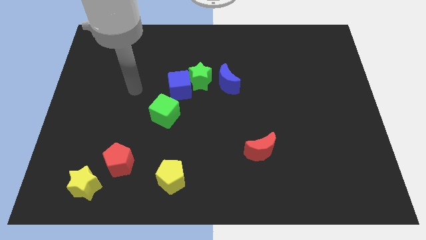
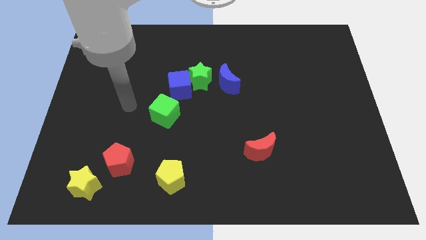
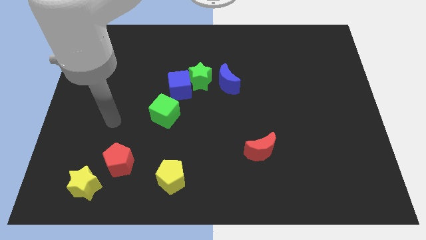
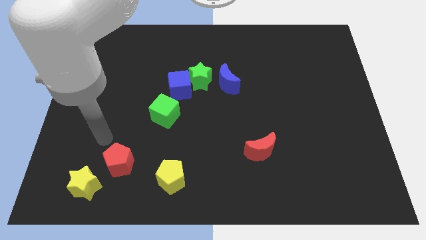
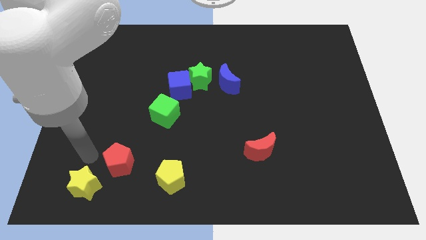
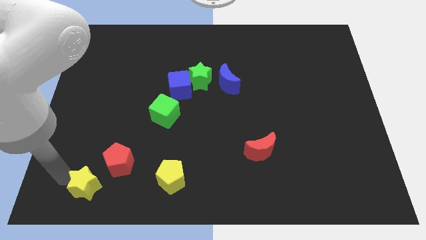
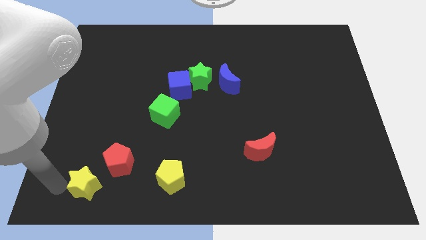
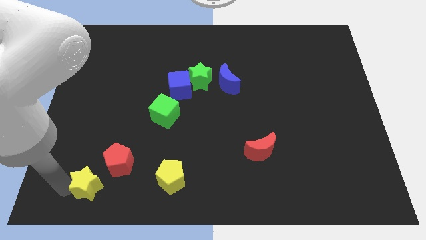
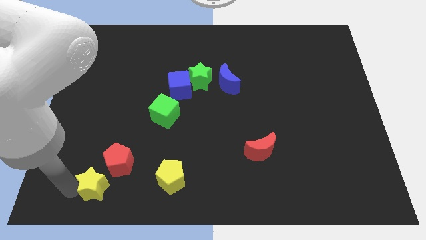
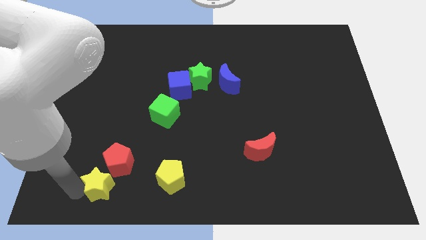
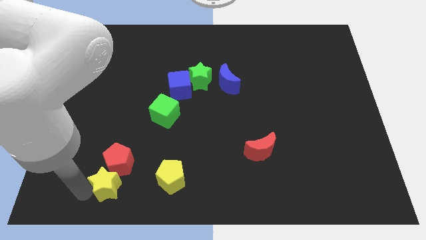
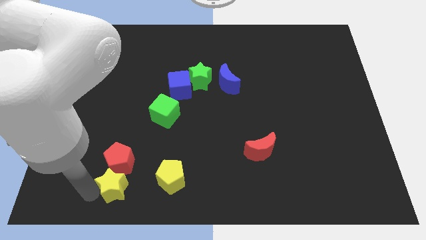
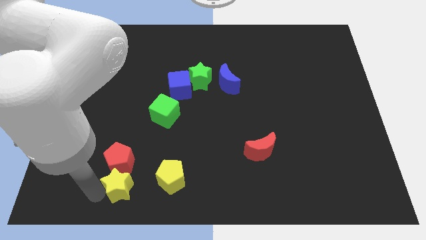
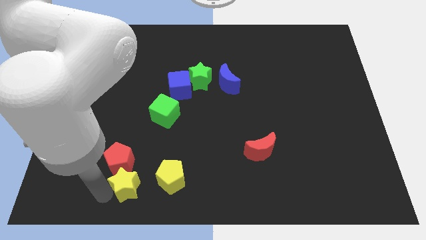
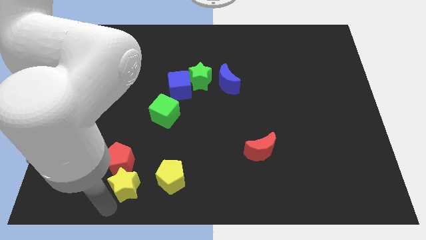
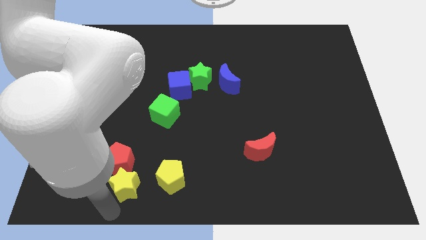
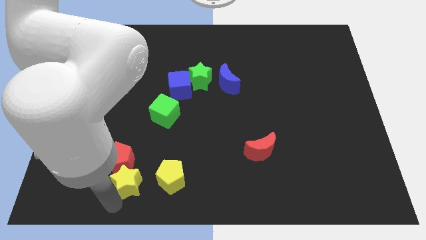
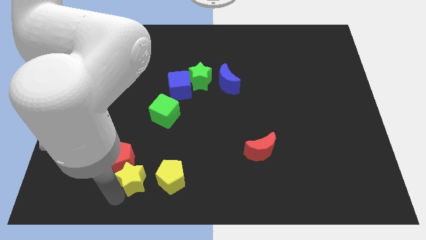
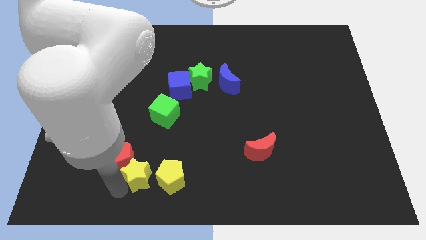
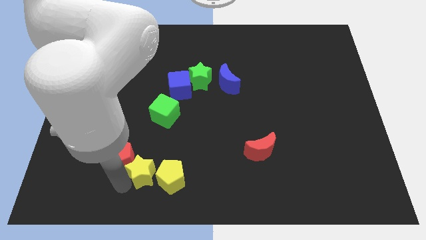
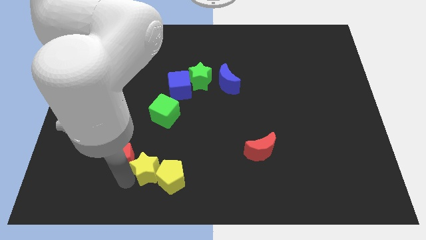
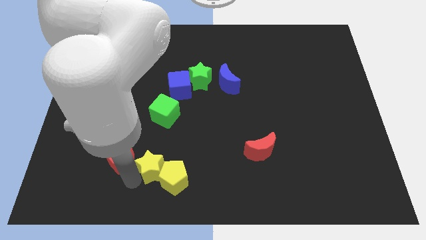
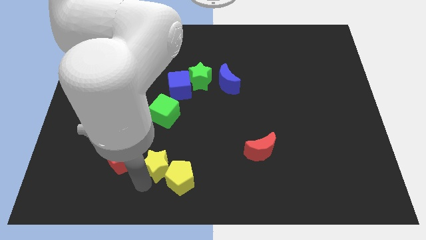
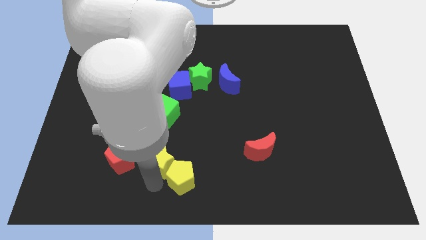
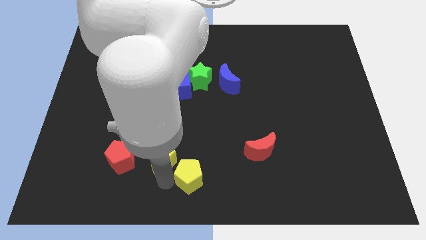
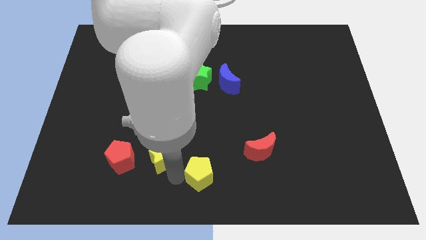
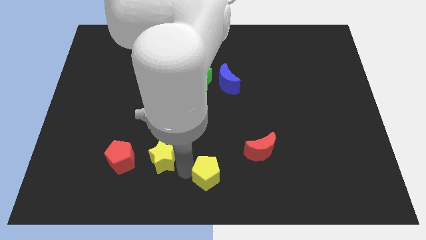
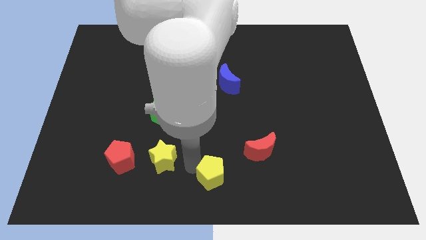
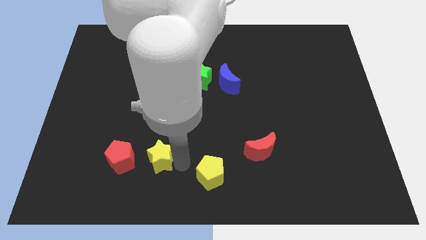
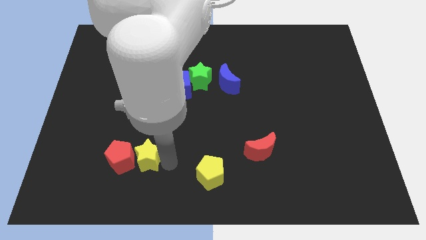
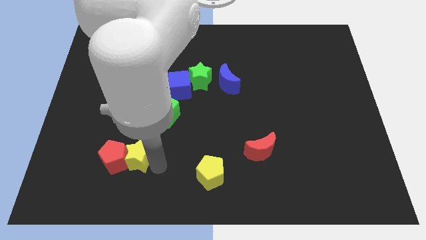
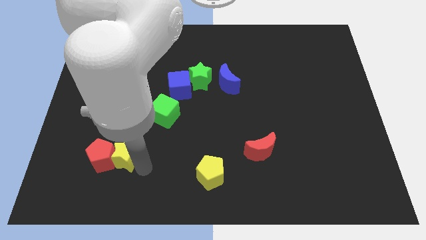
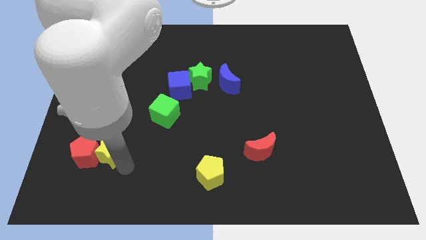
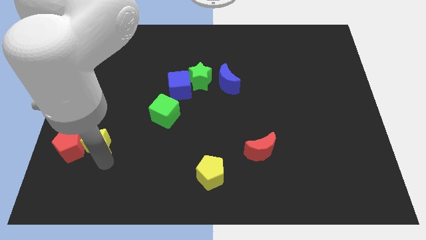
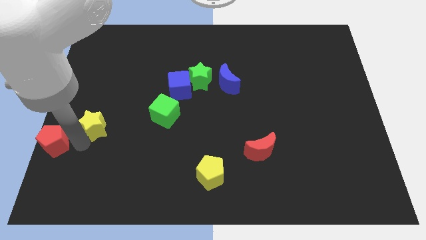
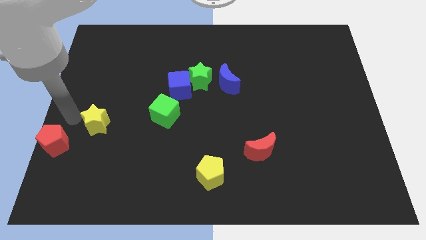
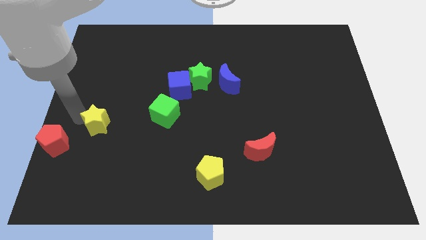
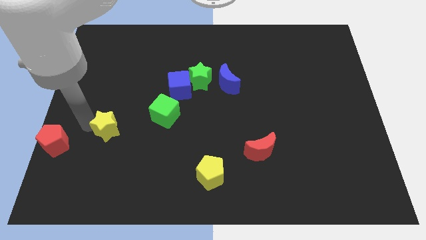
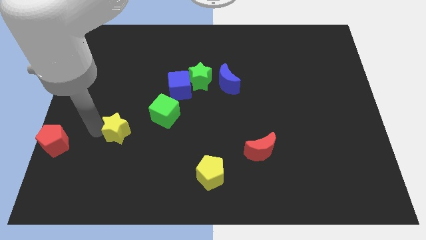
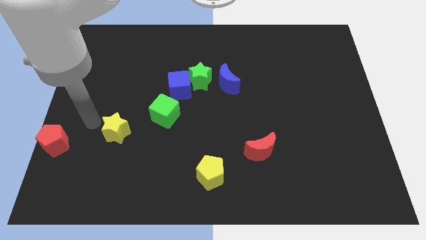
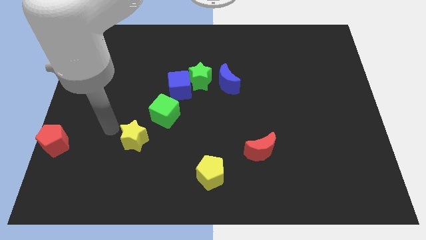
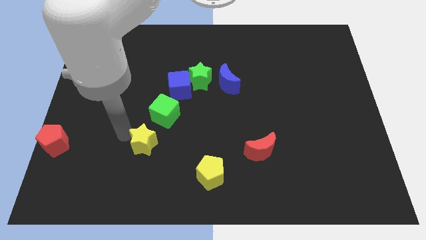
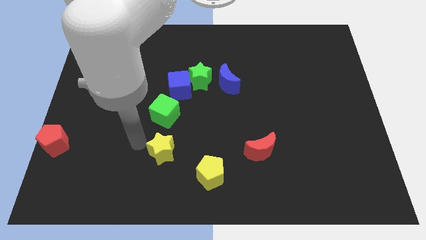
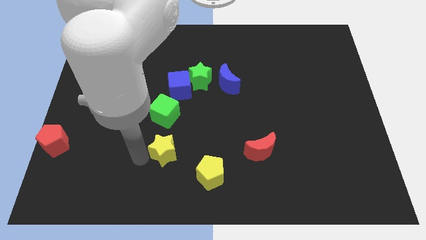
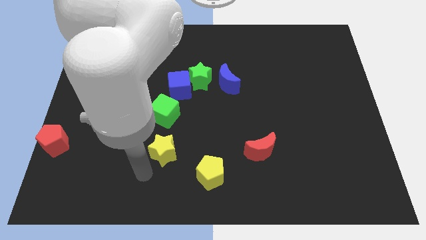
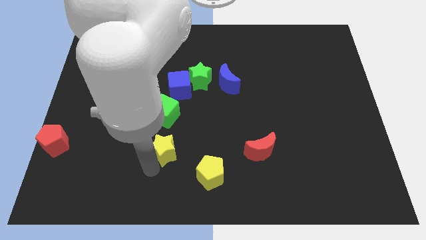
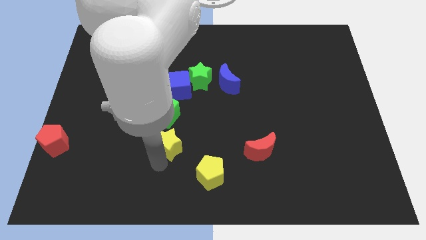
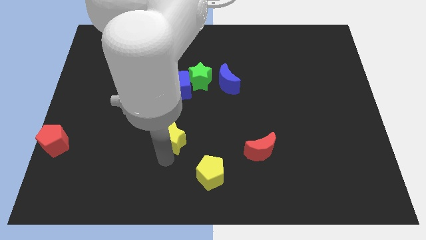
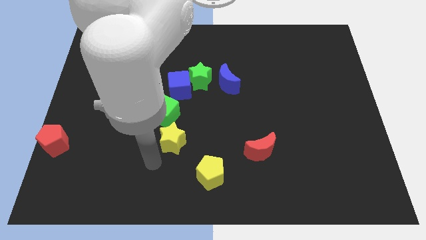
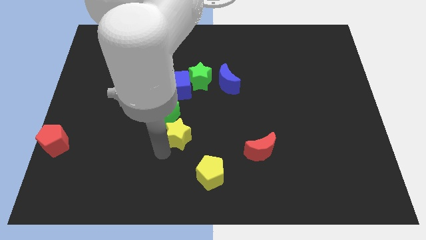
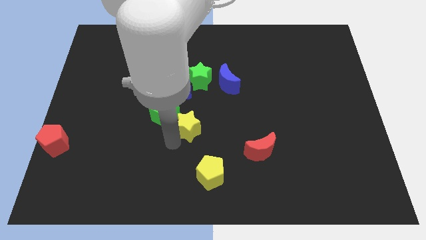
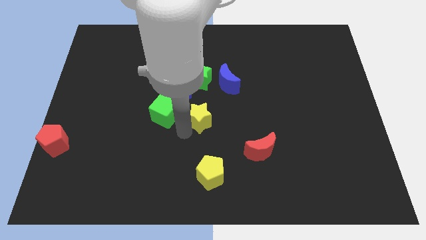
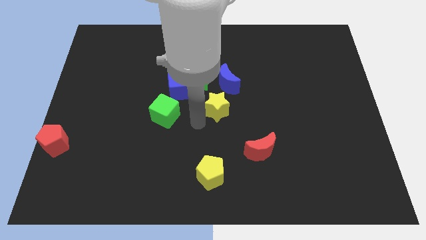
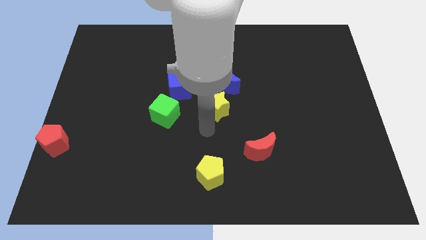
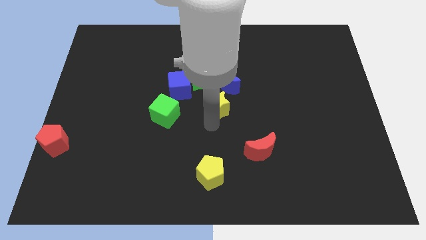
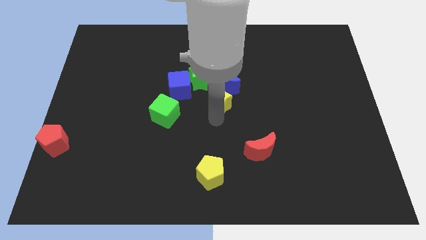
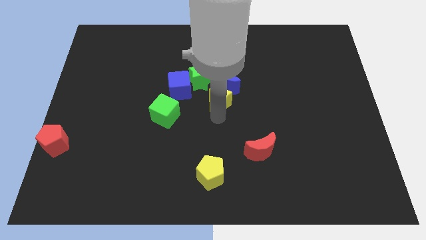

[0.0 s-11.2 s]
push the yellow star to the blue moon

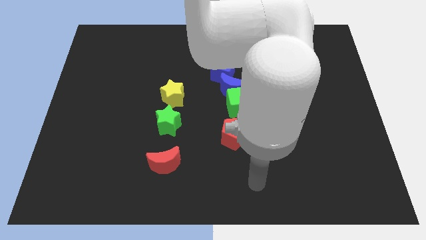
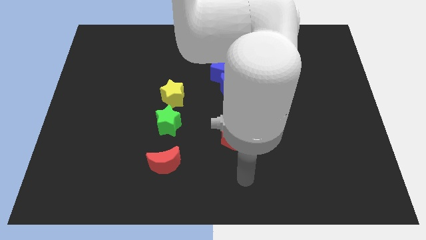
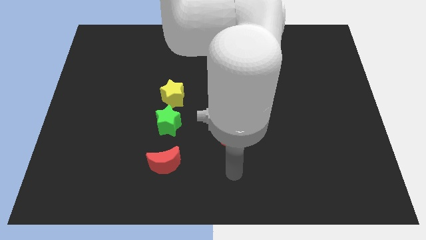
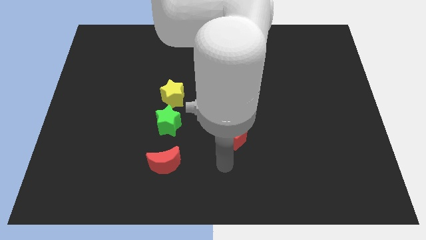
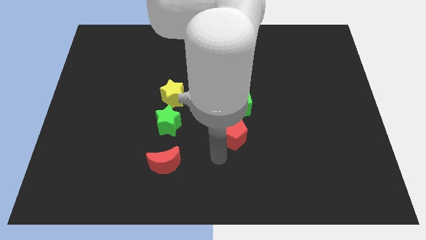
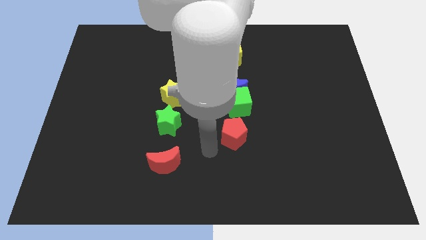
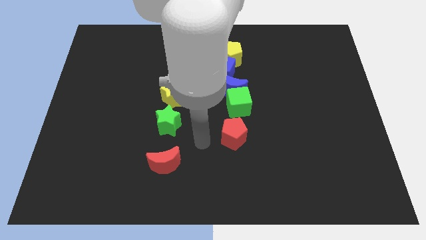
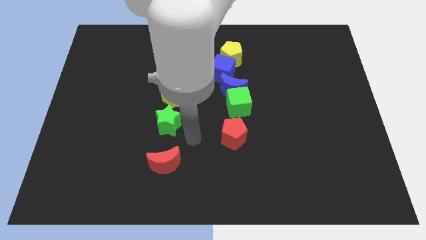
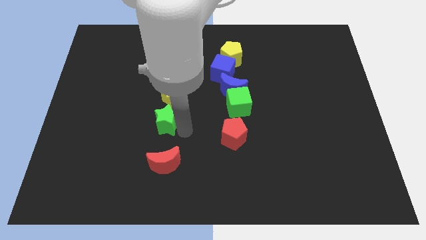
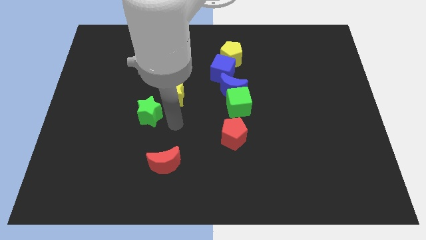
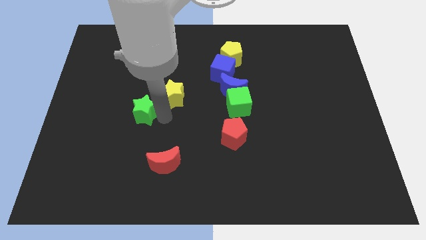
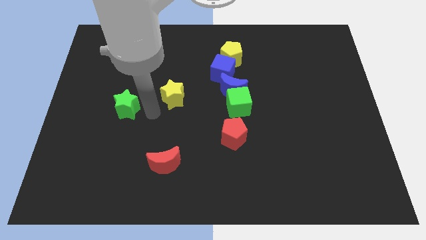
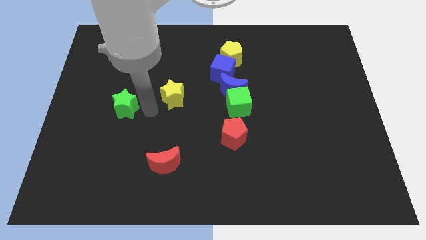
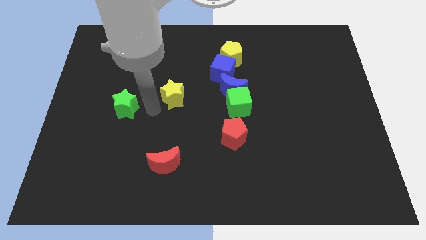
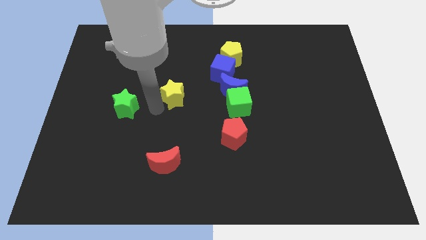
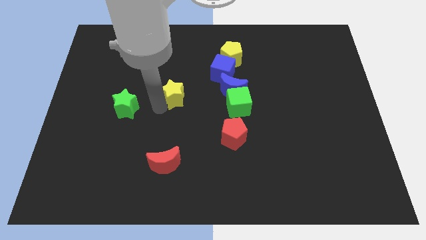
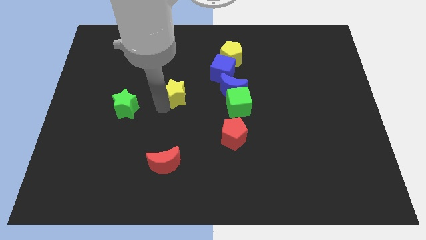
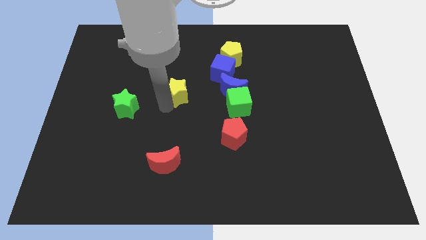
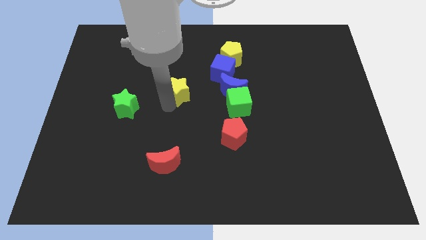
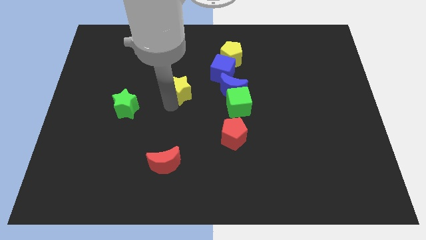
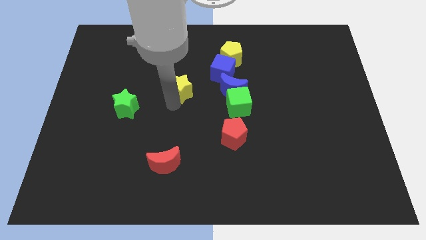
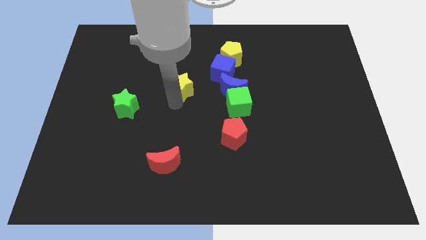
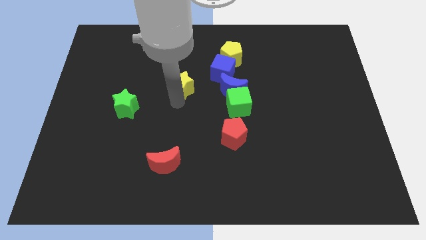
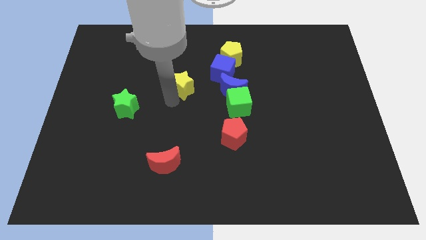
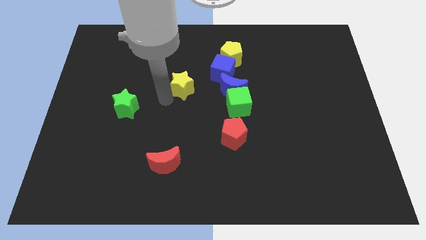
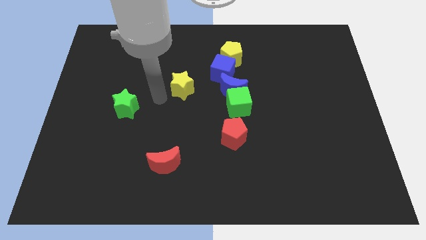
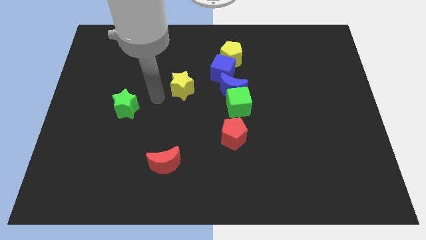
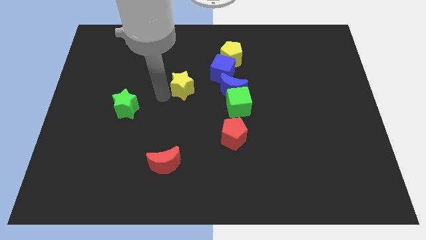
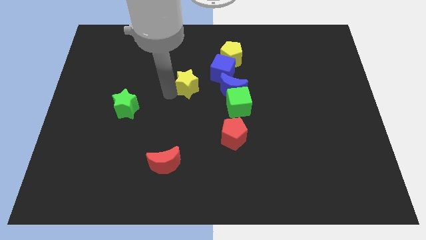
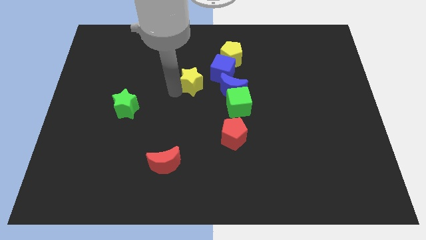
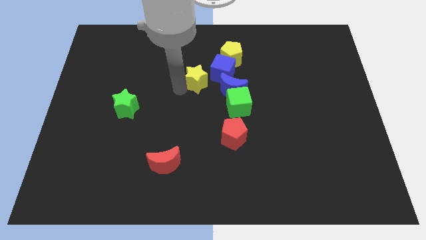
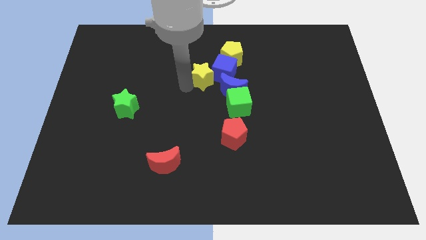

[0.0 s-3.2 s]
move the yellow star next to the blue cube
